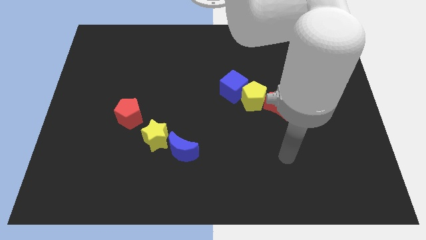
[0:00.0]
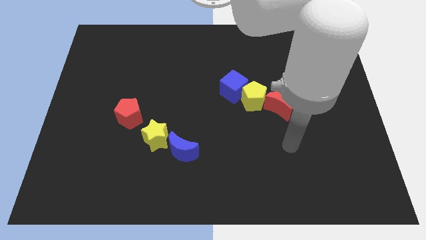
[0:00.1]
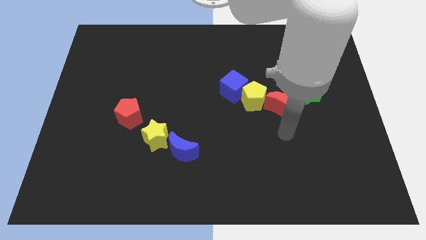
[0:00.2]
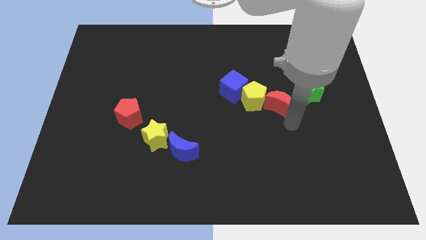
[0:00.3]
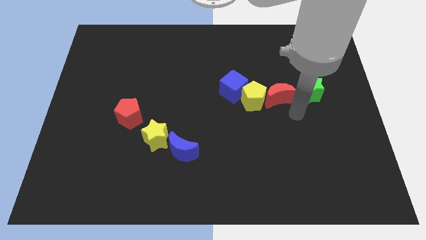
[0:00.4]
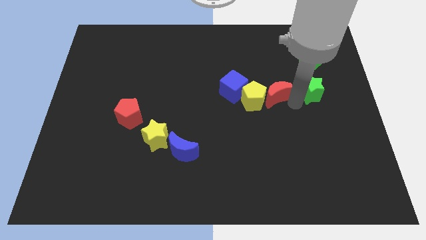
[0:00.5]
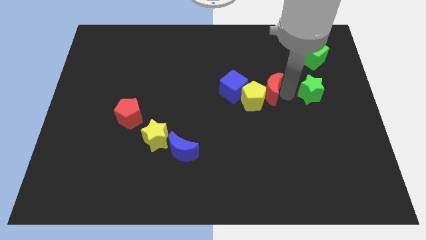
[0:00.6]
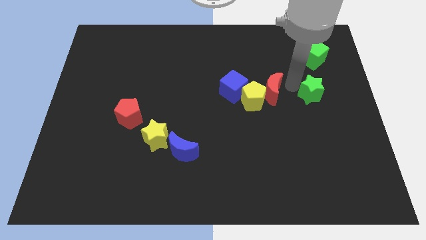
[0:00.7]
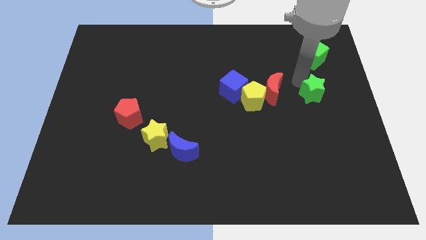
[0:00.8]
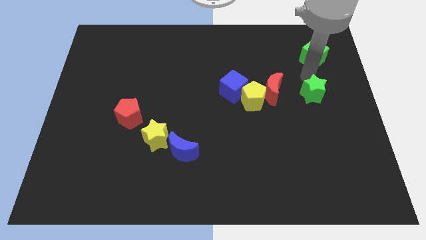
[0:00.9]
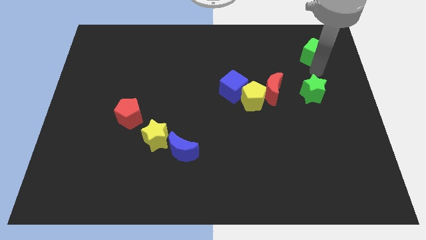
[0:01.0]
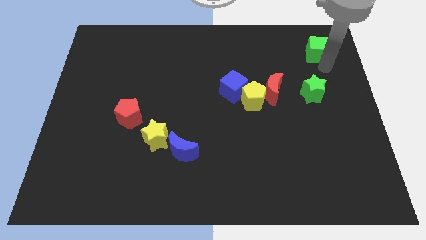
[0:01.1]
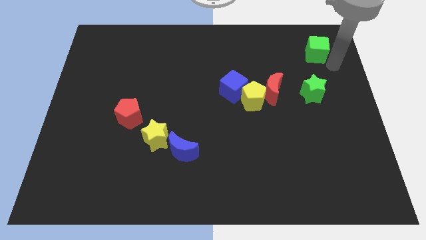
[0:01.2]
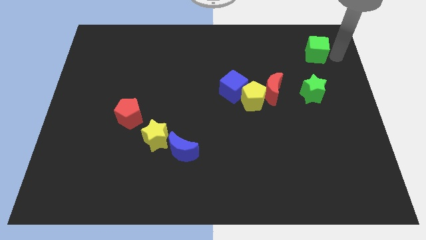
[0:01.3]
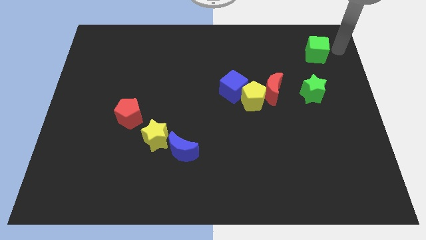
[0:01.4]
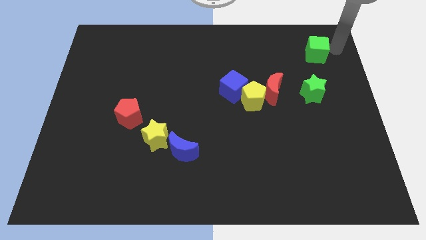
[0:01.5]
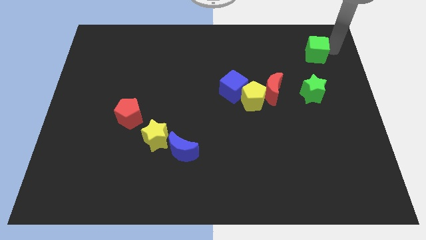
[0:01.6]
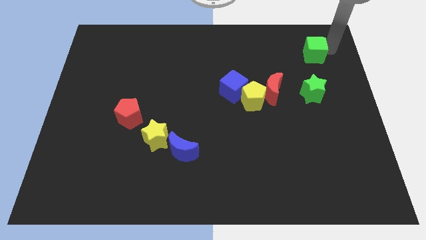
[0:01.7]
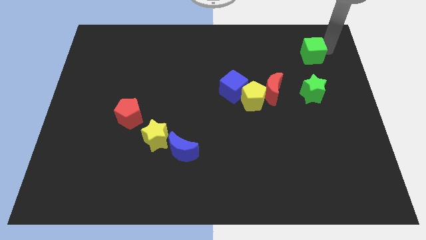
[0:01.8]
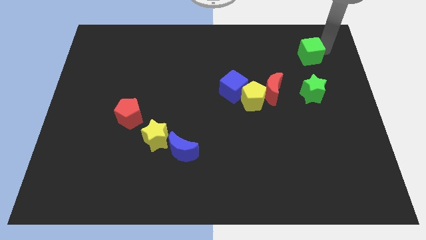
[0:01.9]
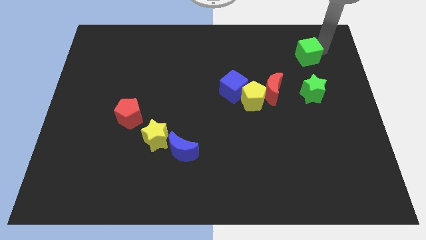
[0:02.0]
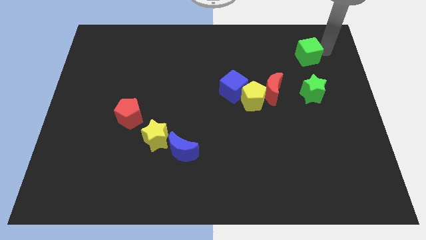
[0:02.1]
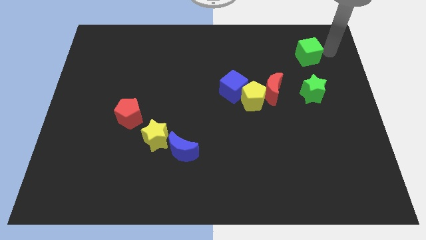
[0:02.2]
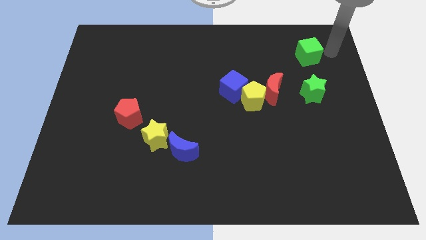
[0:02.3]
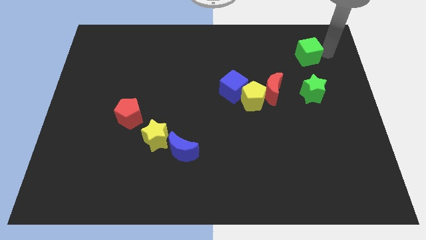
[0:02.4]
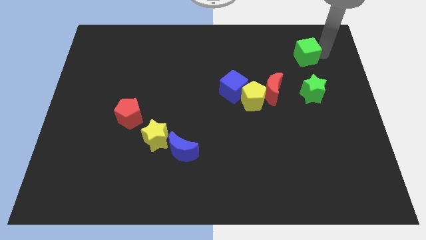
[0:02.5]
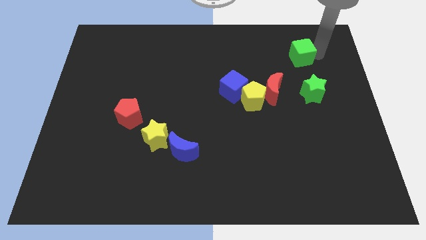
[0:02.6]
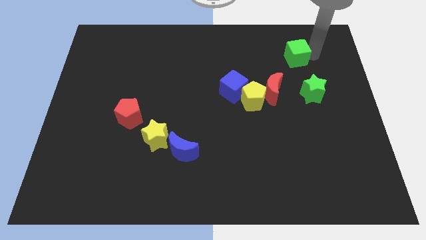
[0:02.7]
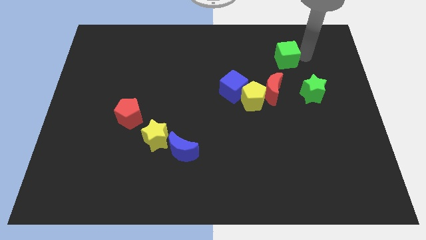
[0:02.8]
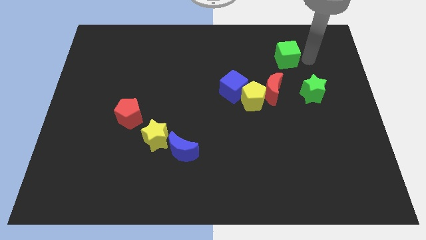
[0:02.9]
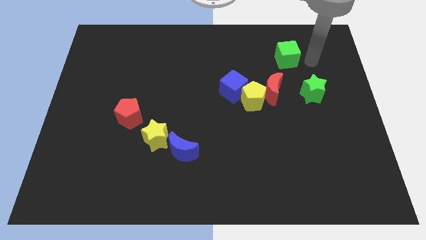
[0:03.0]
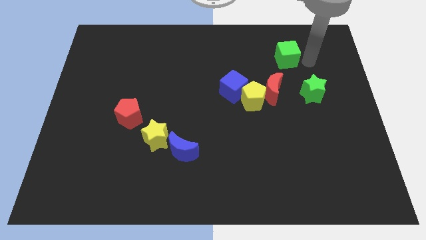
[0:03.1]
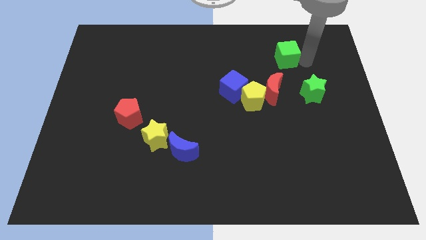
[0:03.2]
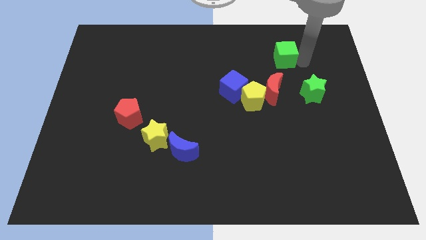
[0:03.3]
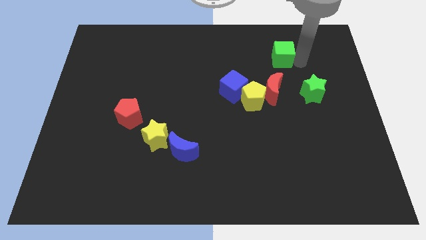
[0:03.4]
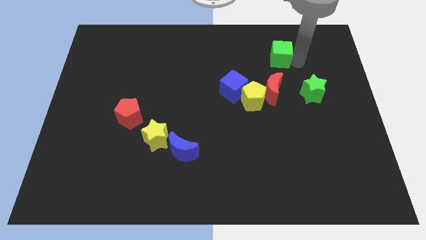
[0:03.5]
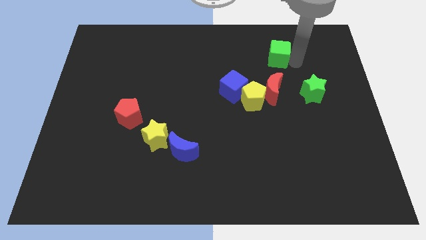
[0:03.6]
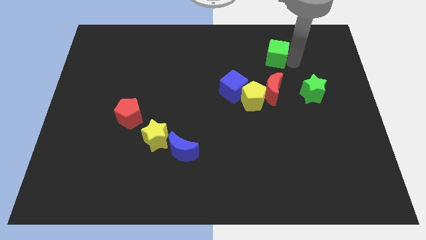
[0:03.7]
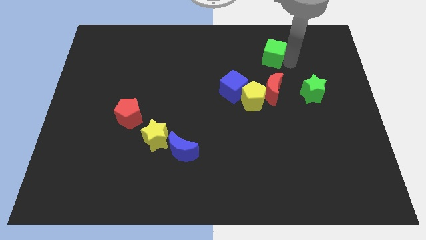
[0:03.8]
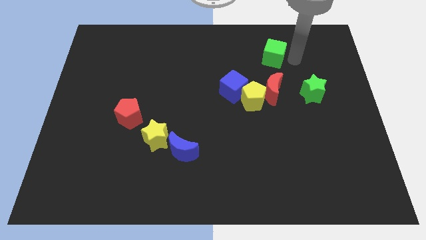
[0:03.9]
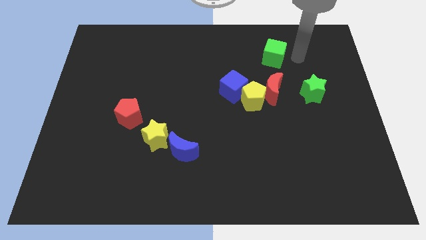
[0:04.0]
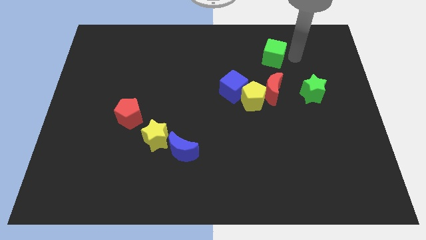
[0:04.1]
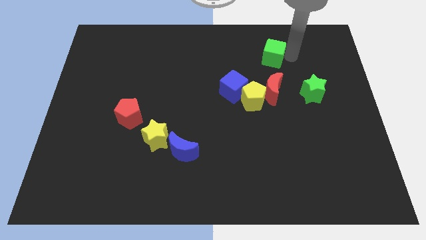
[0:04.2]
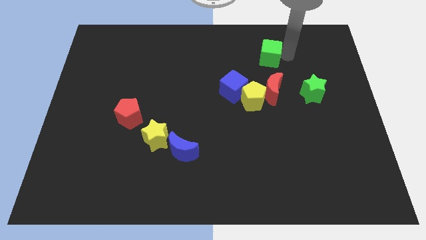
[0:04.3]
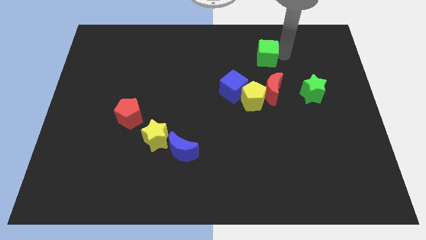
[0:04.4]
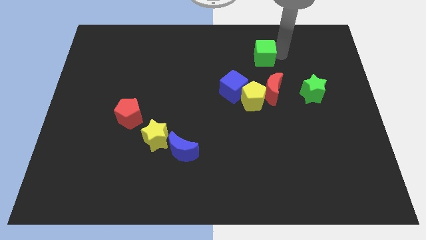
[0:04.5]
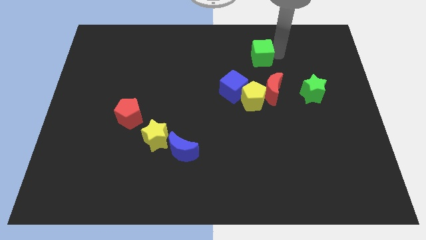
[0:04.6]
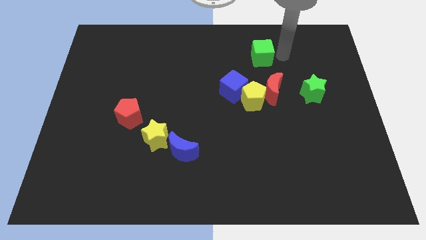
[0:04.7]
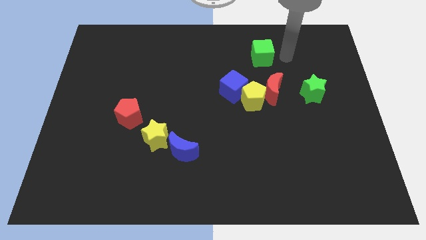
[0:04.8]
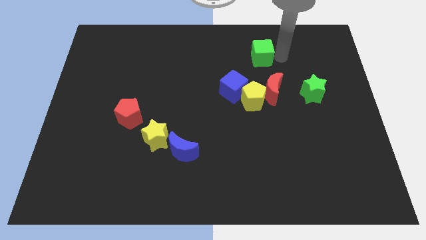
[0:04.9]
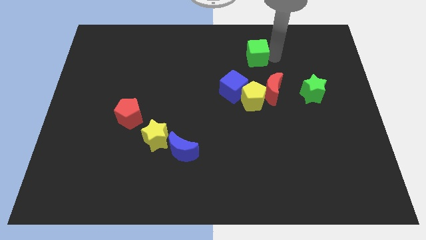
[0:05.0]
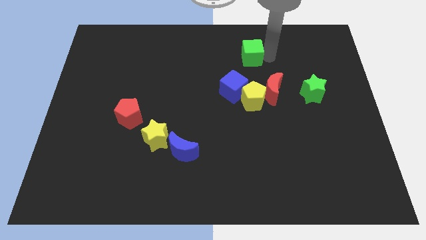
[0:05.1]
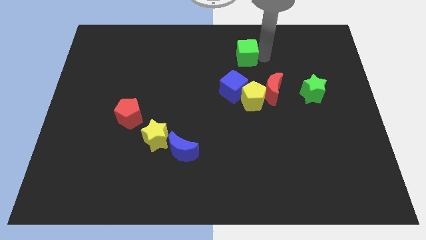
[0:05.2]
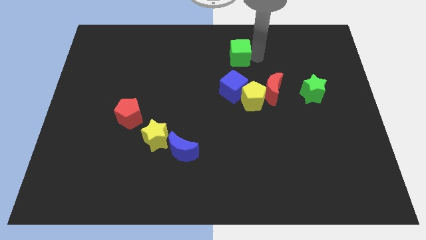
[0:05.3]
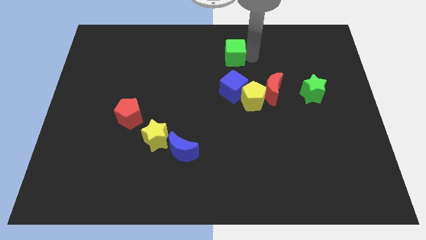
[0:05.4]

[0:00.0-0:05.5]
push the green cube left

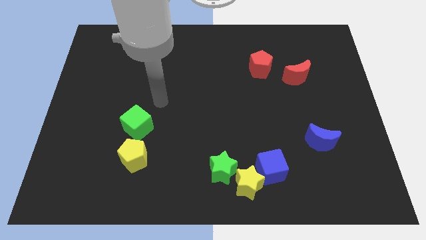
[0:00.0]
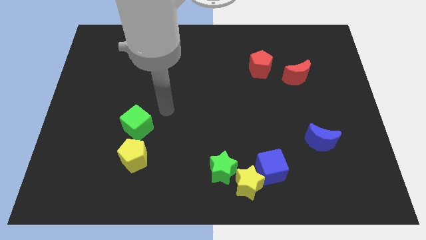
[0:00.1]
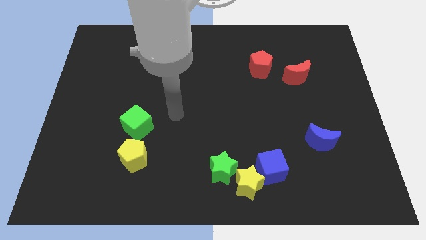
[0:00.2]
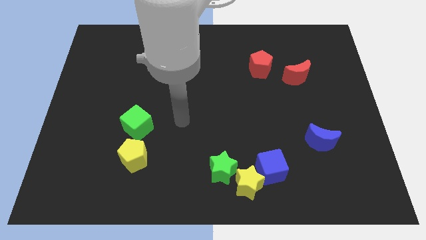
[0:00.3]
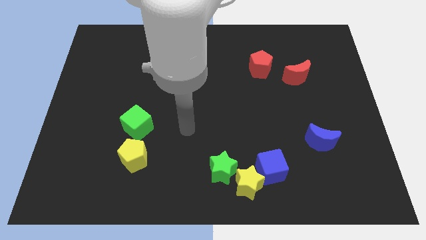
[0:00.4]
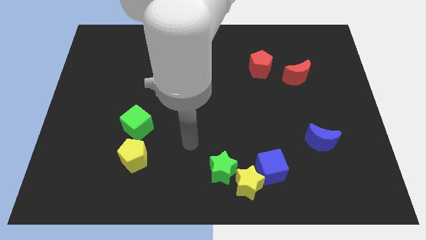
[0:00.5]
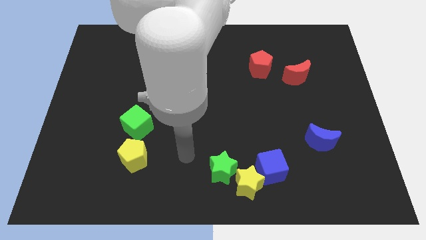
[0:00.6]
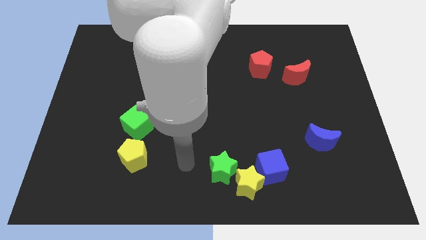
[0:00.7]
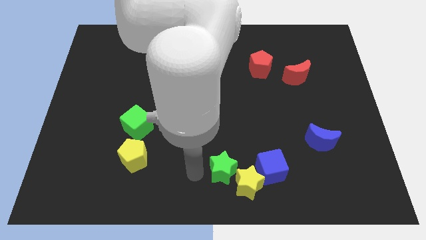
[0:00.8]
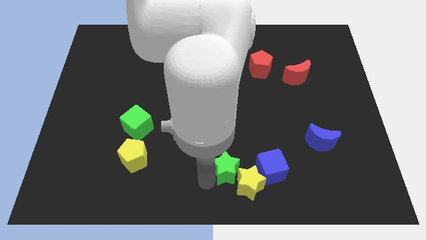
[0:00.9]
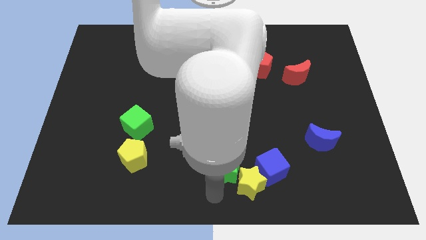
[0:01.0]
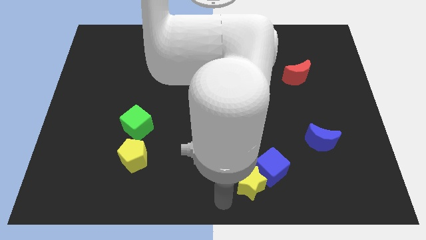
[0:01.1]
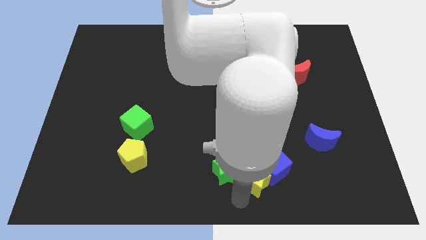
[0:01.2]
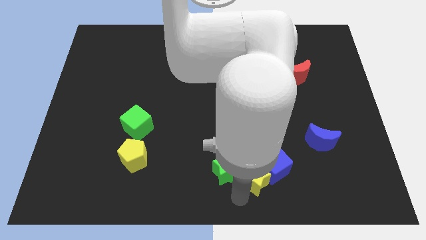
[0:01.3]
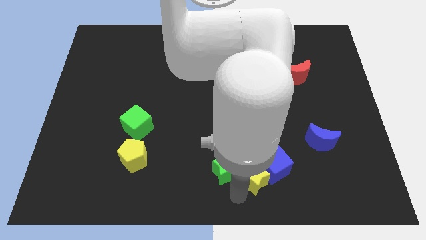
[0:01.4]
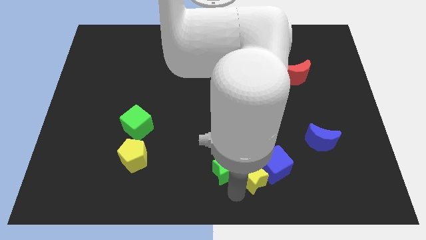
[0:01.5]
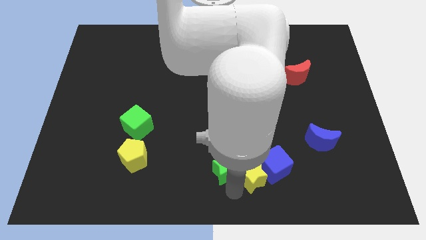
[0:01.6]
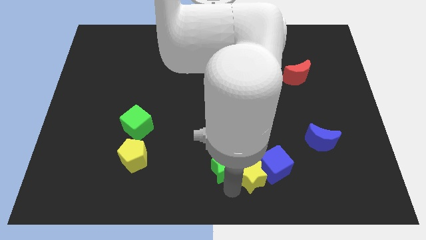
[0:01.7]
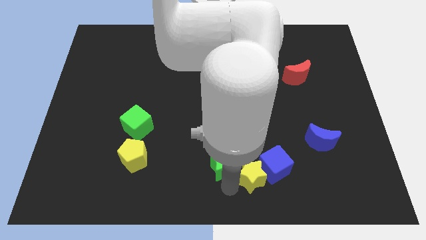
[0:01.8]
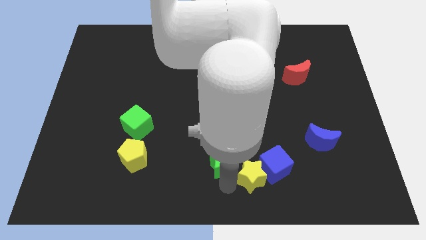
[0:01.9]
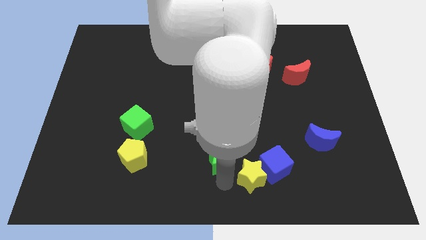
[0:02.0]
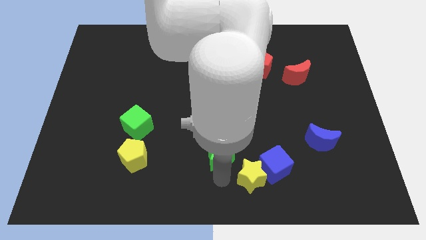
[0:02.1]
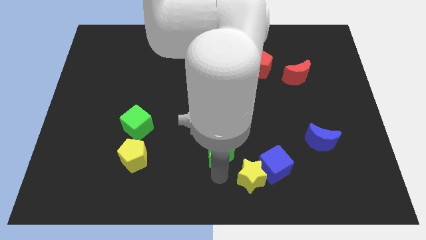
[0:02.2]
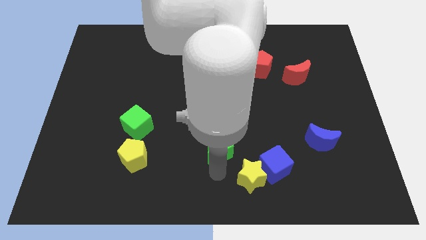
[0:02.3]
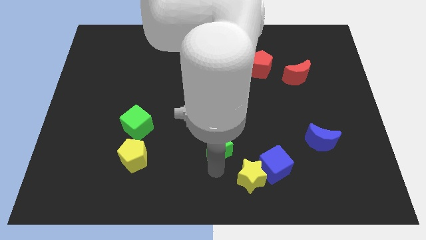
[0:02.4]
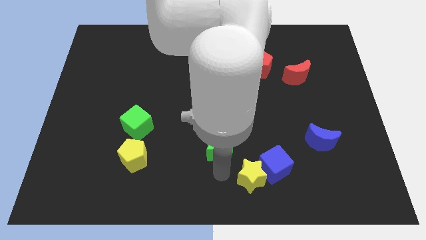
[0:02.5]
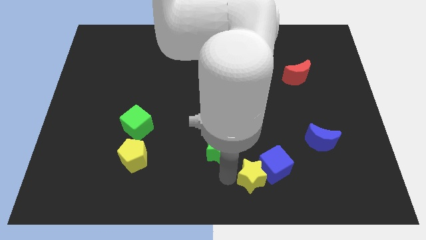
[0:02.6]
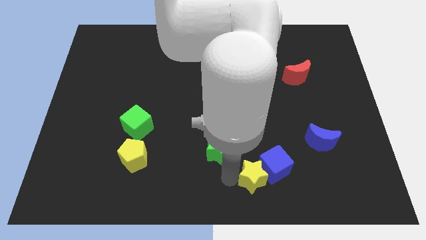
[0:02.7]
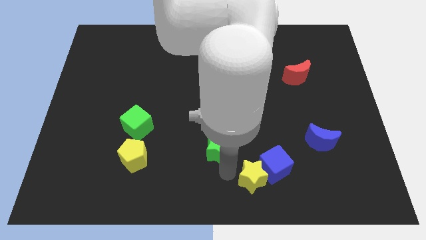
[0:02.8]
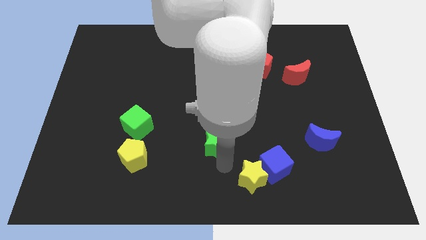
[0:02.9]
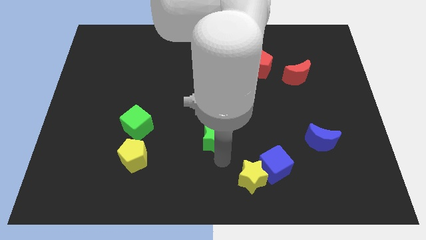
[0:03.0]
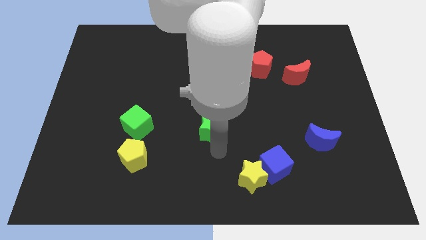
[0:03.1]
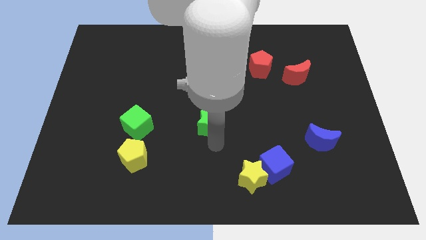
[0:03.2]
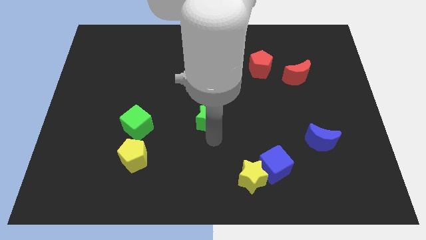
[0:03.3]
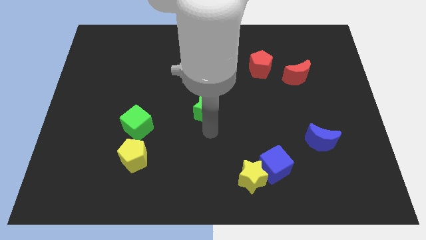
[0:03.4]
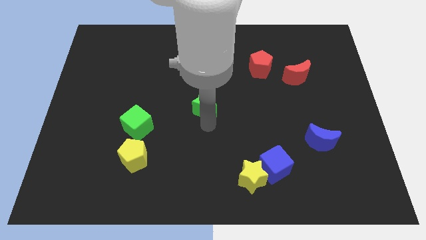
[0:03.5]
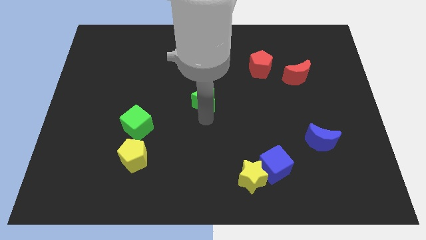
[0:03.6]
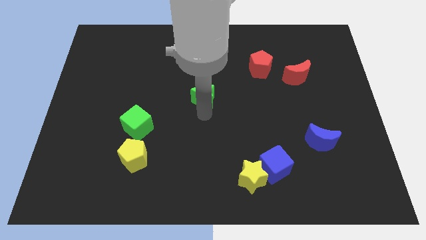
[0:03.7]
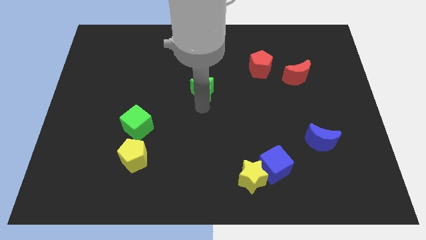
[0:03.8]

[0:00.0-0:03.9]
move the green star up
